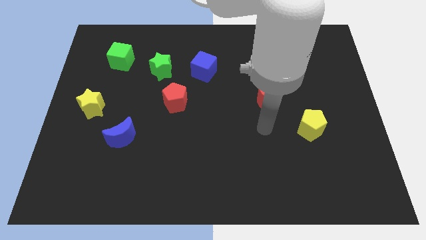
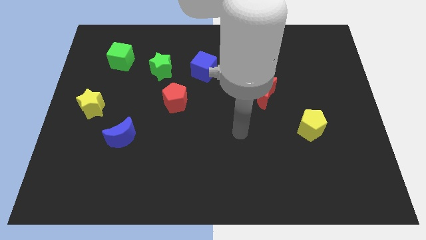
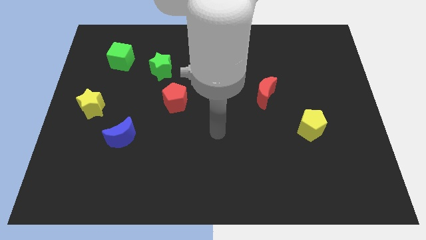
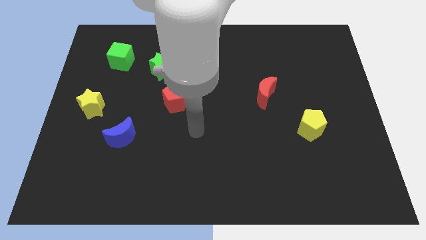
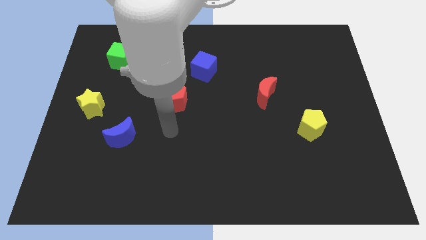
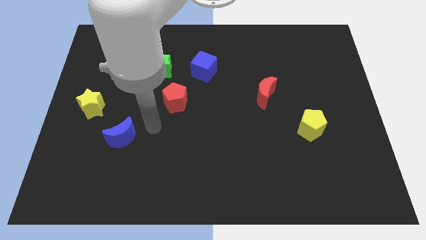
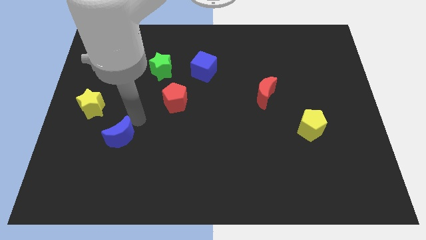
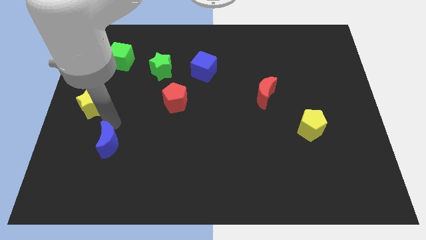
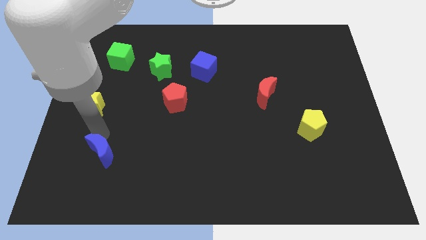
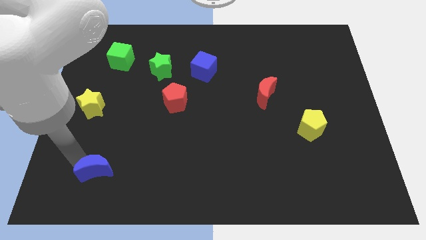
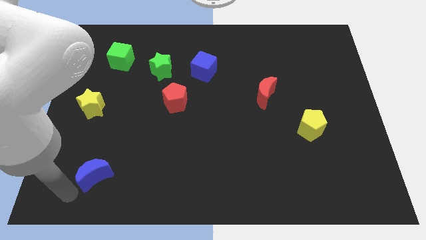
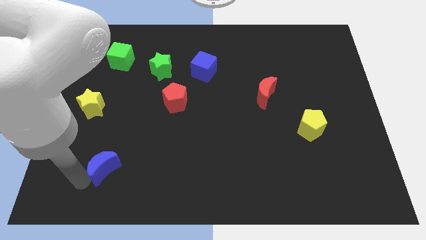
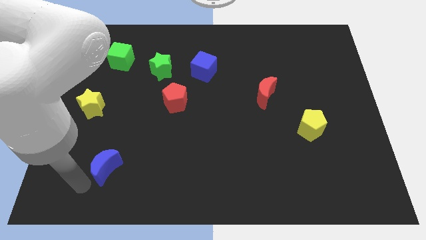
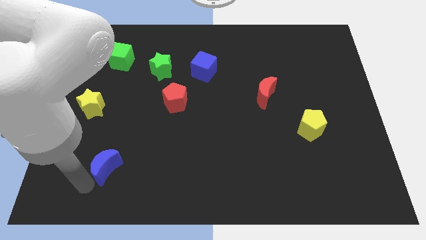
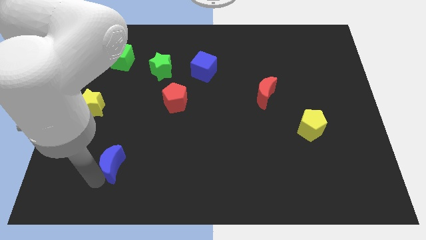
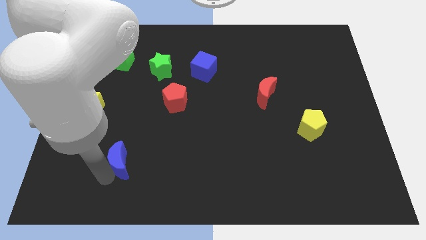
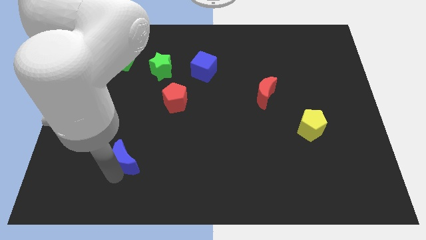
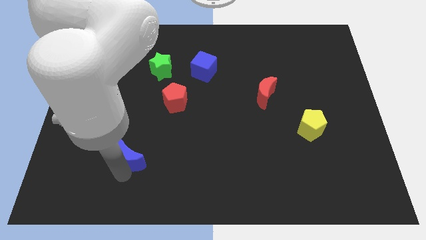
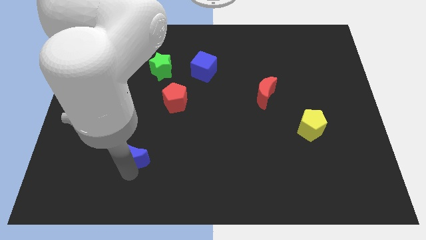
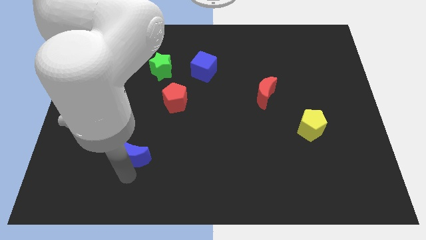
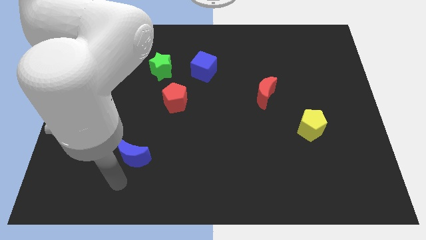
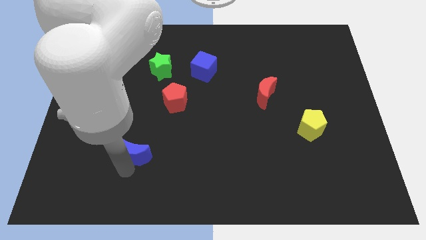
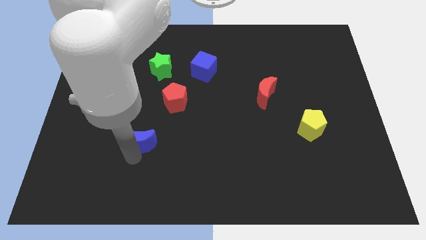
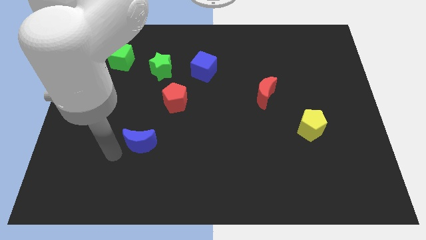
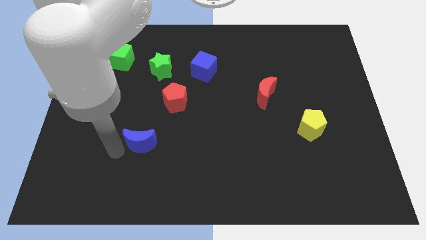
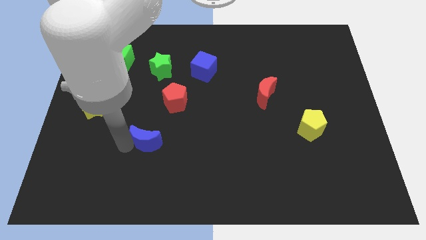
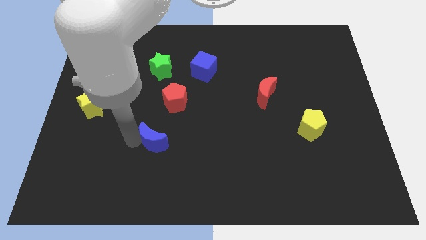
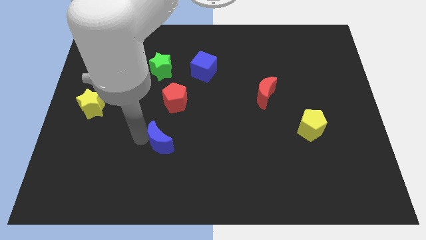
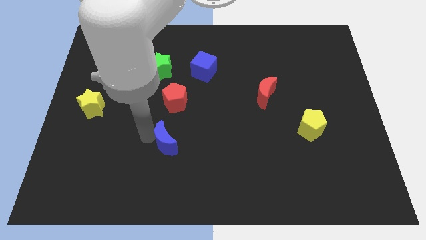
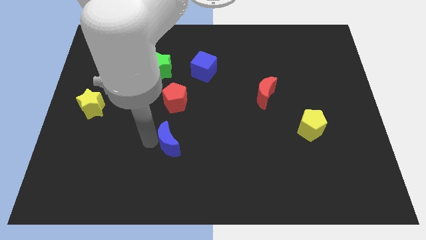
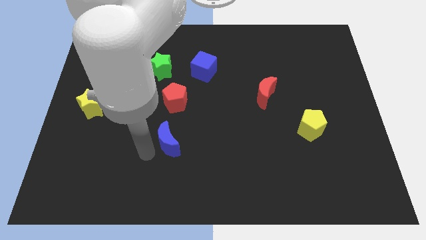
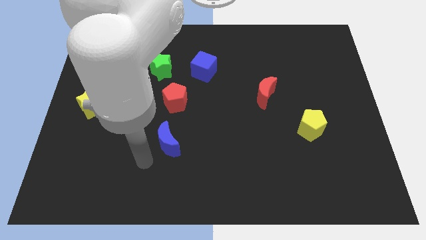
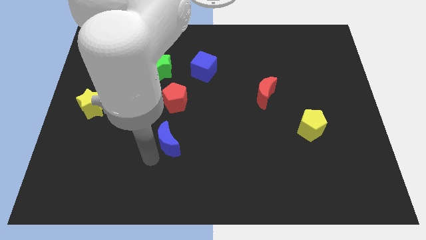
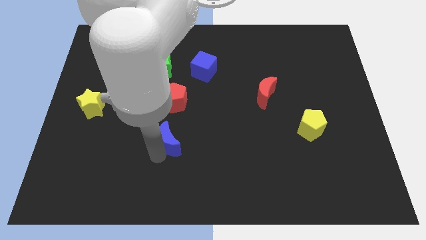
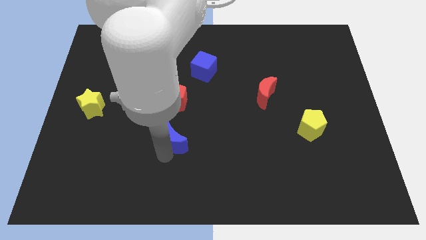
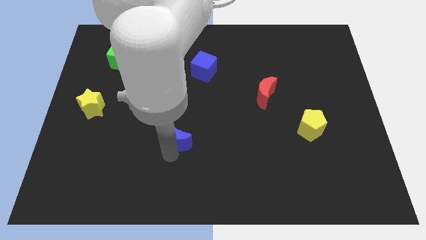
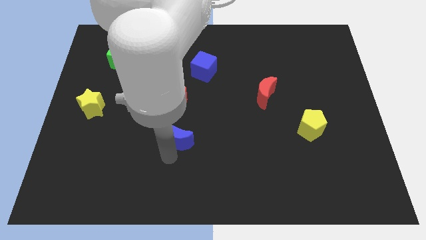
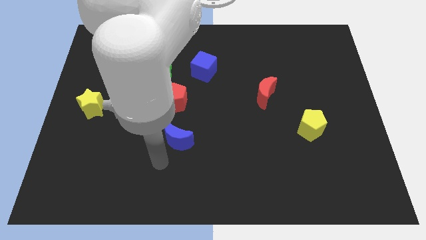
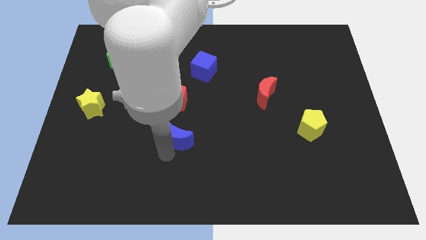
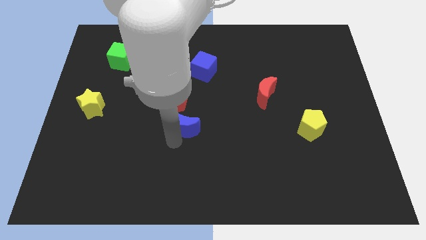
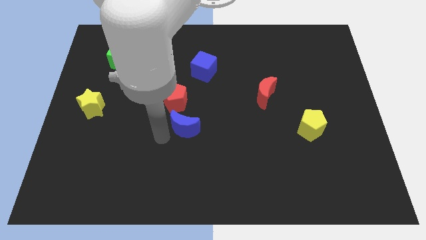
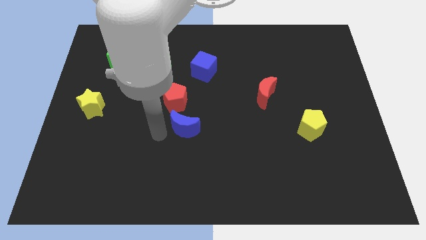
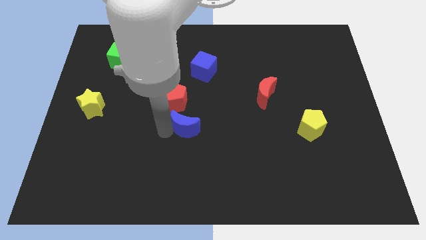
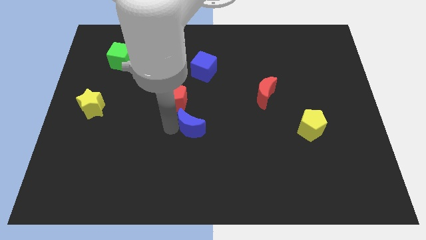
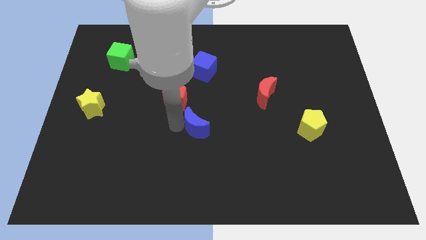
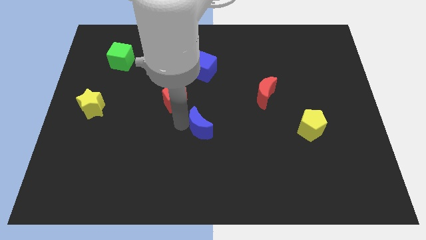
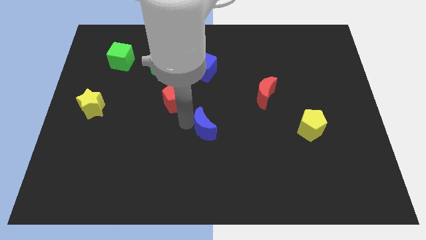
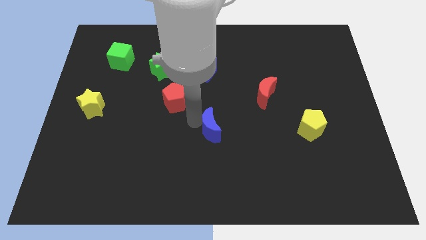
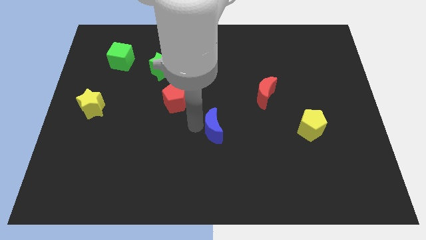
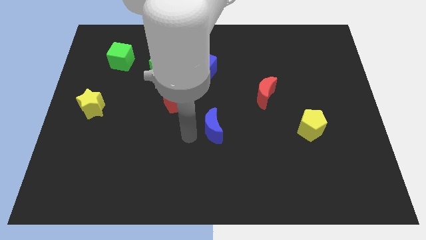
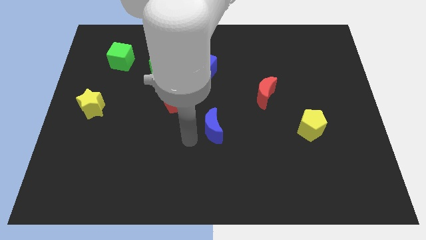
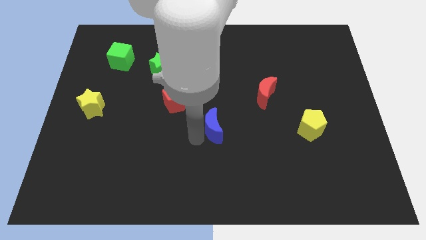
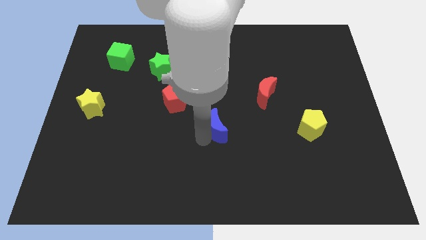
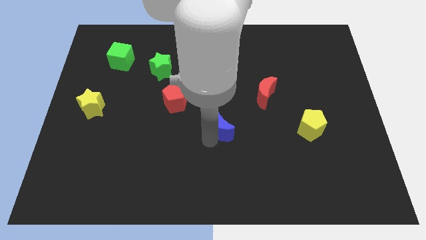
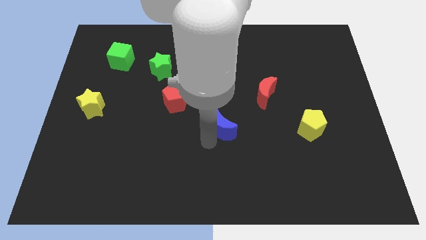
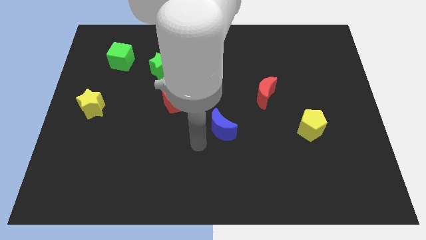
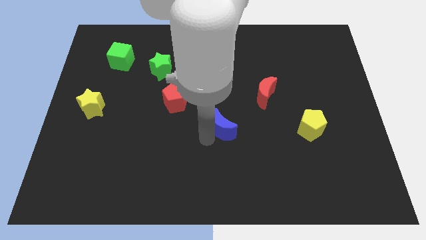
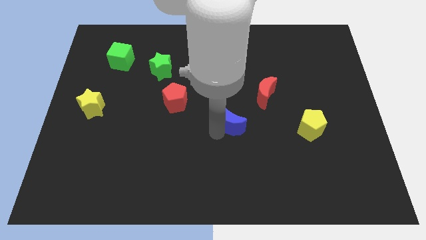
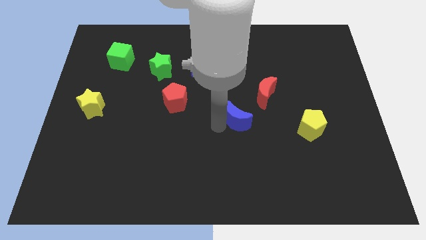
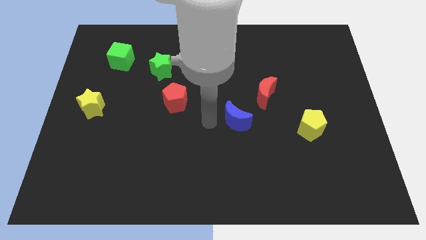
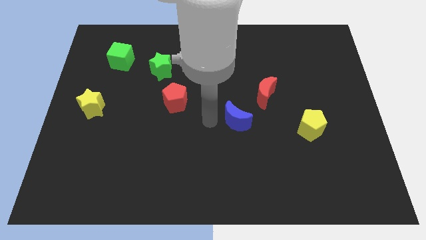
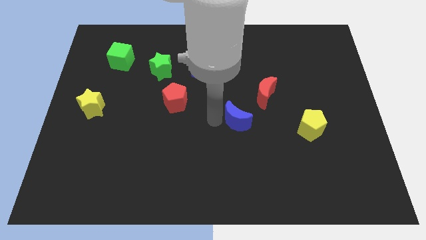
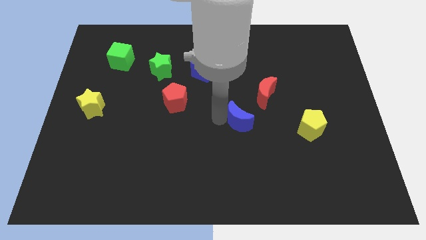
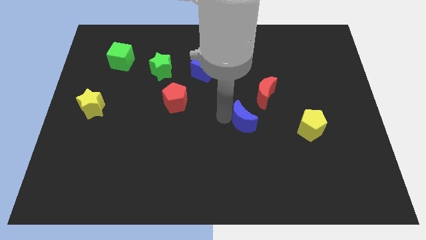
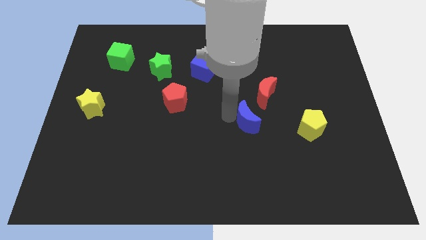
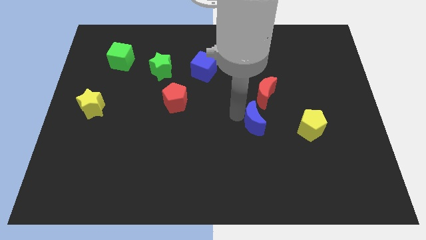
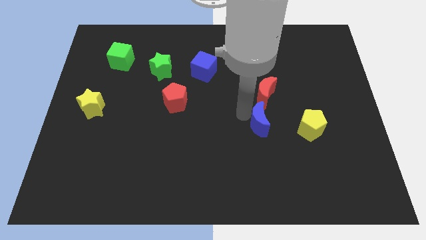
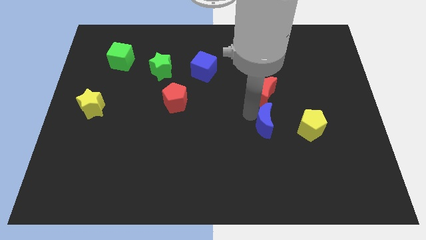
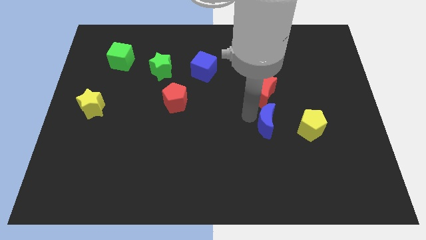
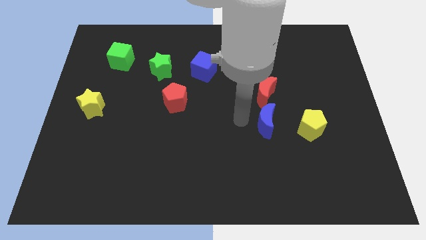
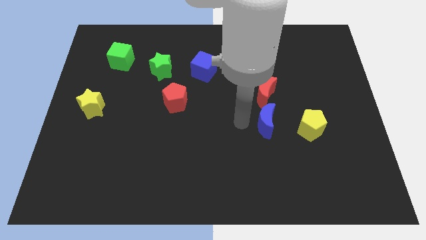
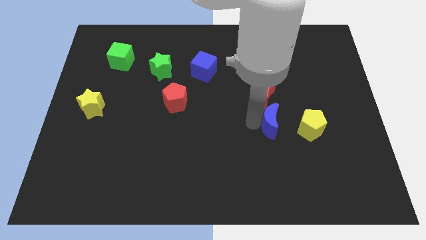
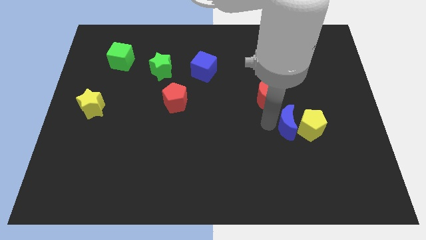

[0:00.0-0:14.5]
slide the blue moon close to the yellow pentagon
